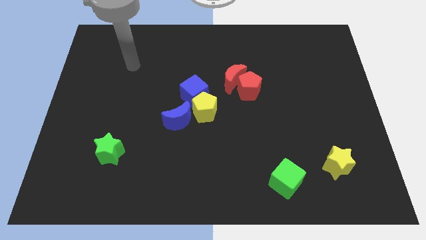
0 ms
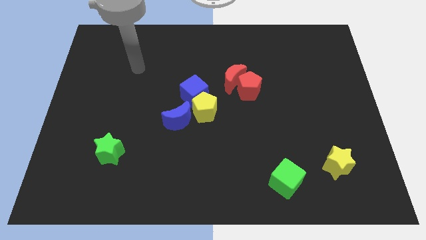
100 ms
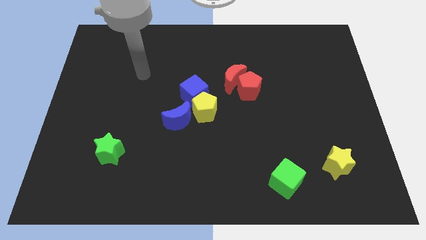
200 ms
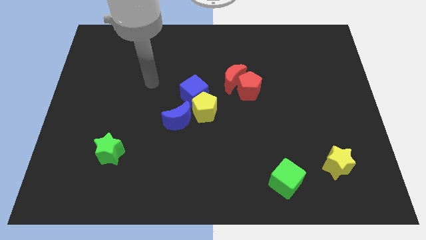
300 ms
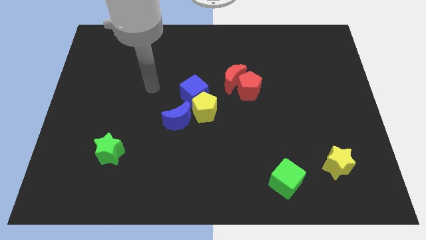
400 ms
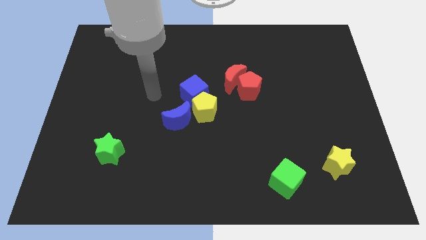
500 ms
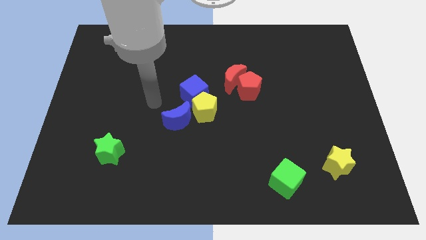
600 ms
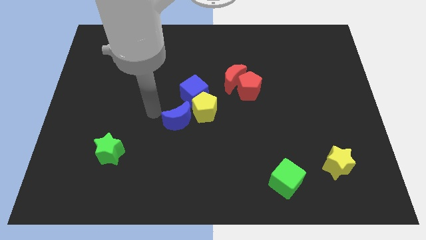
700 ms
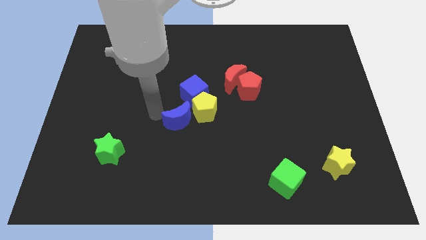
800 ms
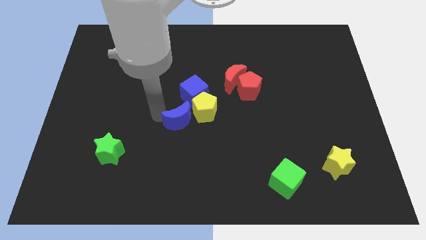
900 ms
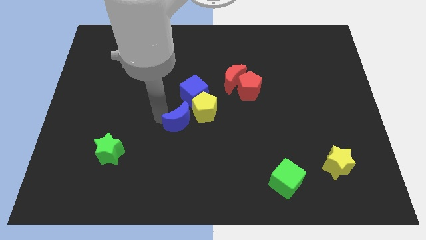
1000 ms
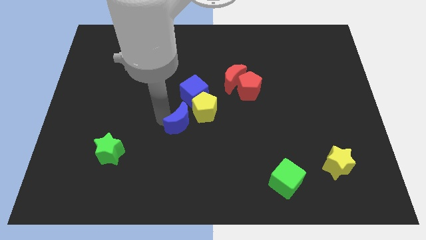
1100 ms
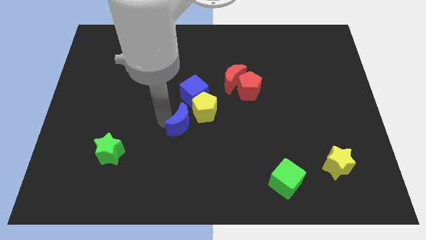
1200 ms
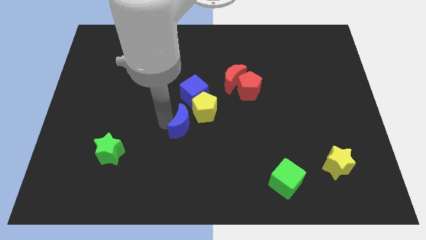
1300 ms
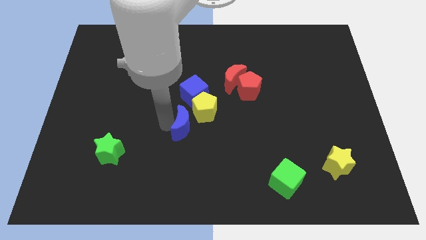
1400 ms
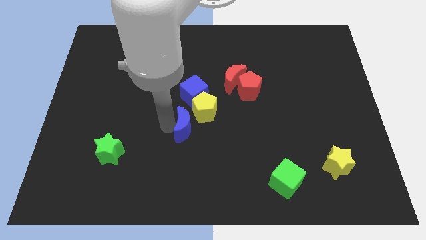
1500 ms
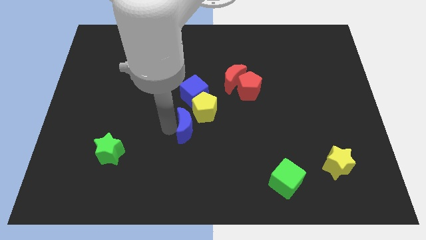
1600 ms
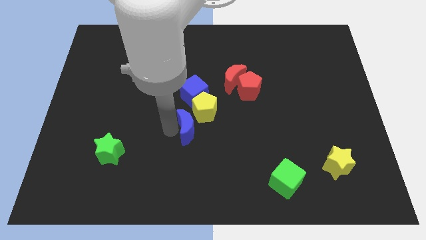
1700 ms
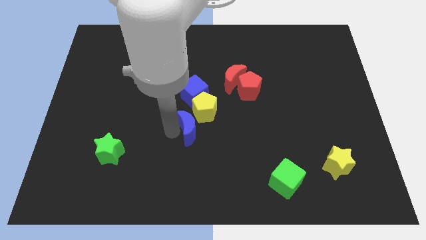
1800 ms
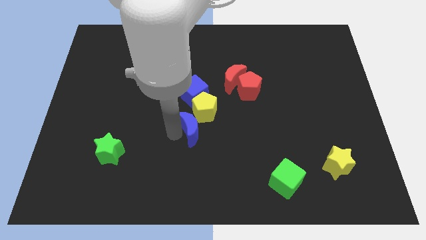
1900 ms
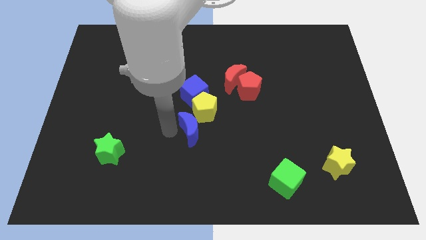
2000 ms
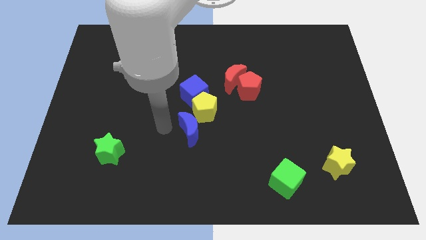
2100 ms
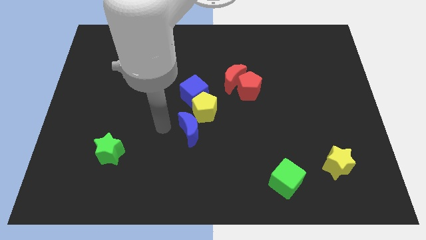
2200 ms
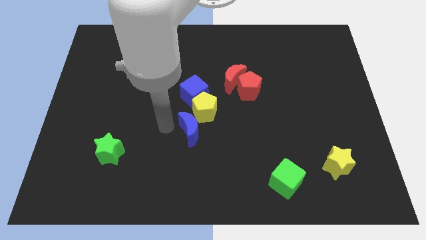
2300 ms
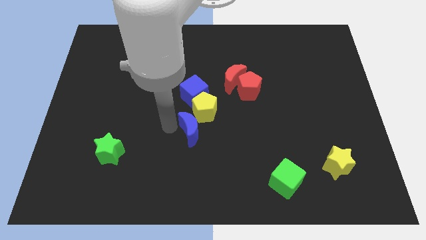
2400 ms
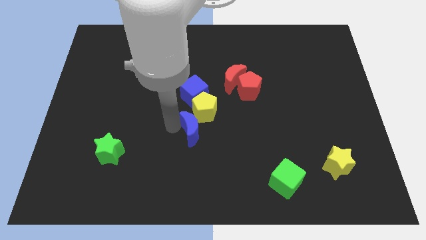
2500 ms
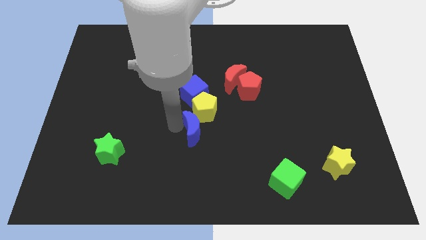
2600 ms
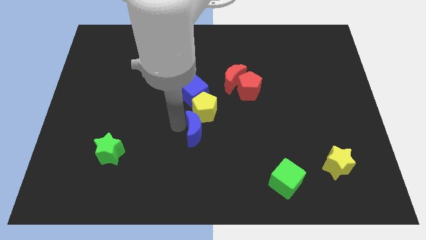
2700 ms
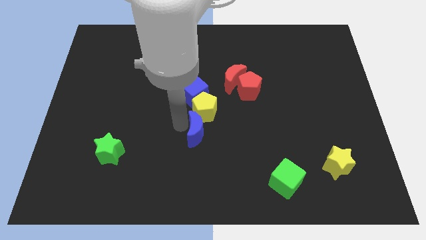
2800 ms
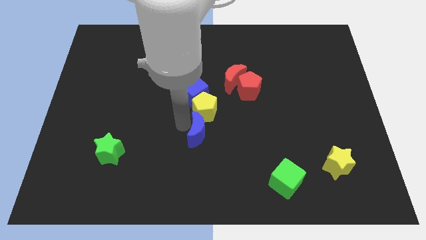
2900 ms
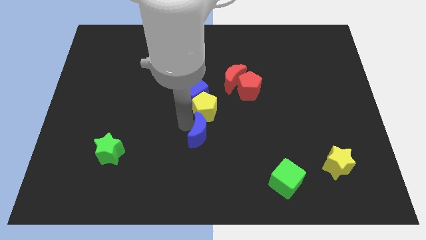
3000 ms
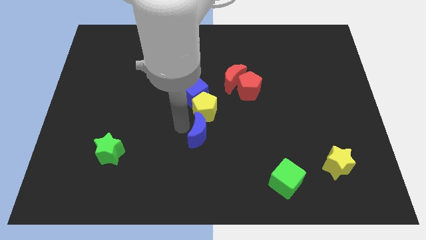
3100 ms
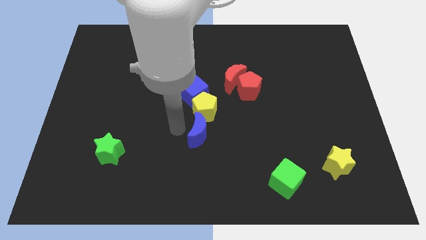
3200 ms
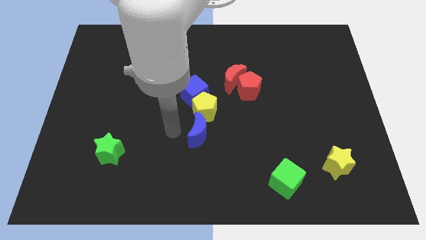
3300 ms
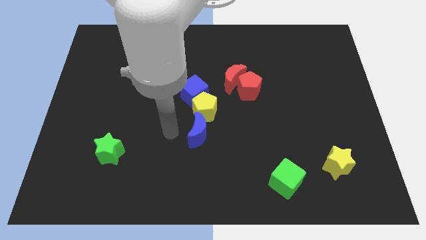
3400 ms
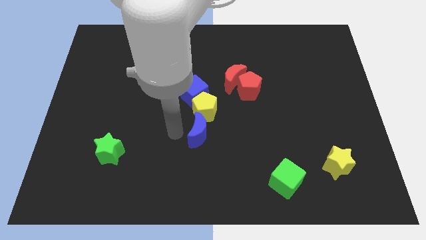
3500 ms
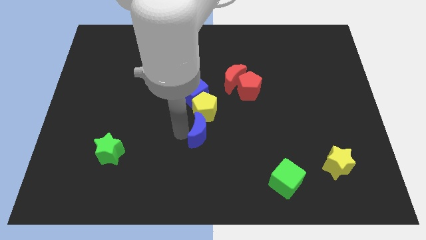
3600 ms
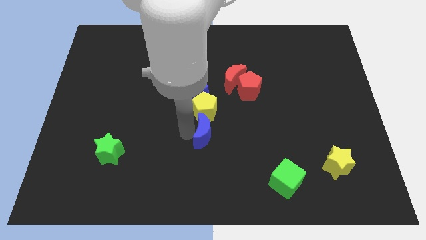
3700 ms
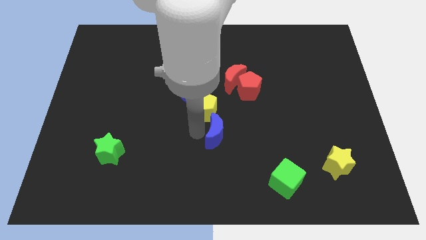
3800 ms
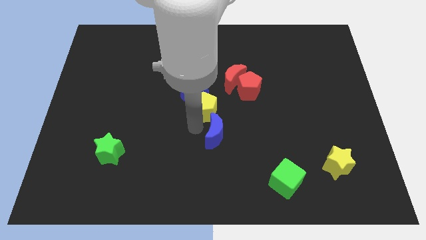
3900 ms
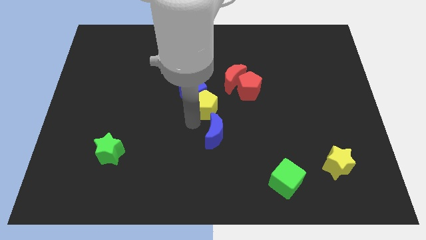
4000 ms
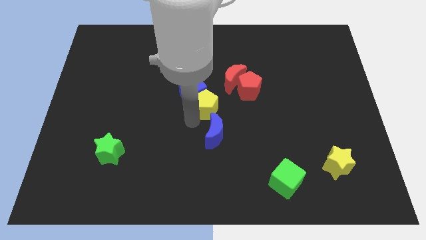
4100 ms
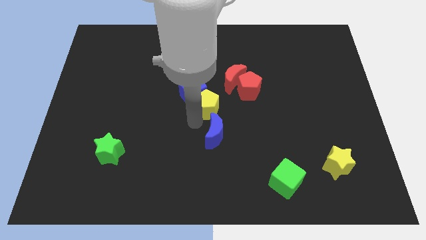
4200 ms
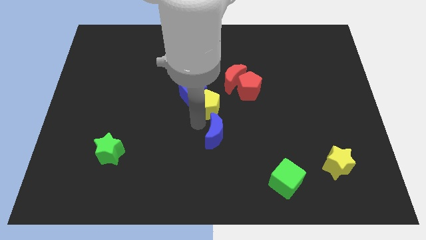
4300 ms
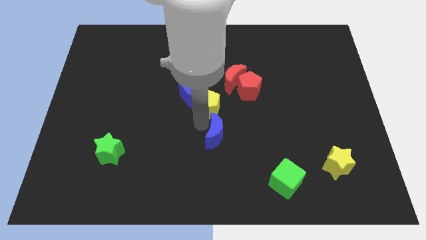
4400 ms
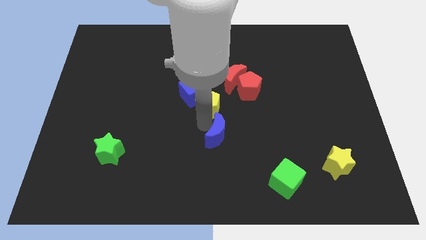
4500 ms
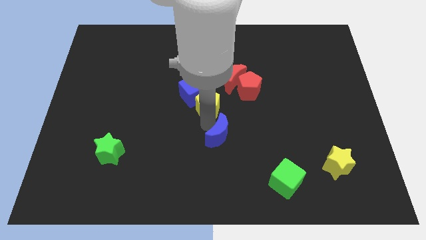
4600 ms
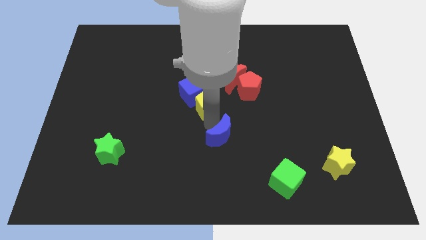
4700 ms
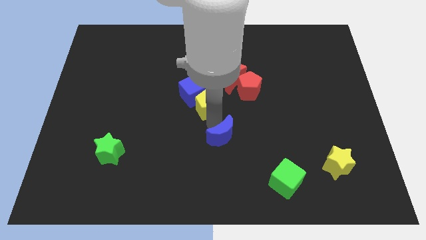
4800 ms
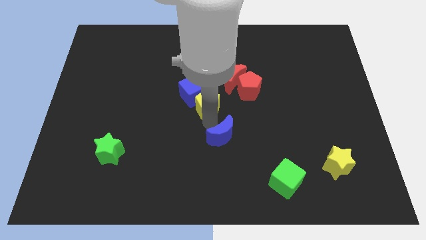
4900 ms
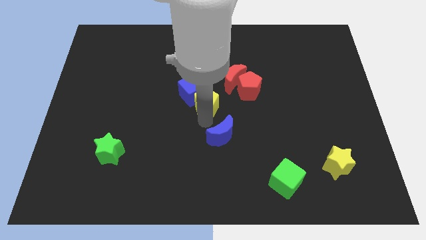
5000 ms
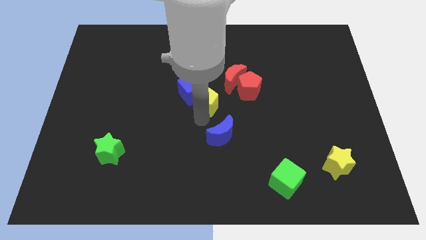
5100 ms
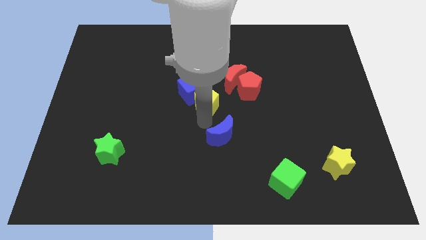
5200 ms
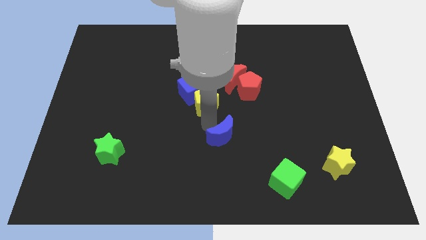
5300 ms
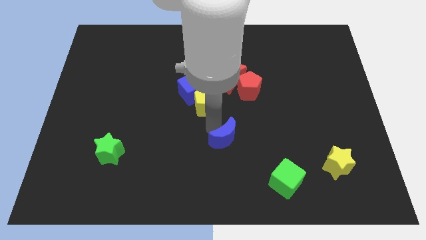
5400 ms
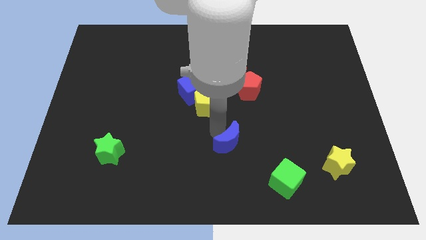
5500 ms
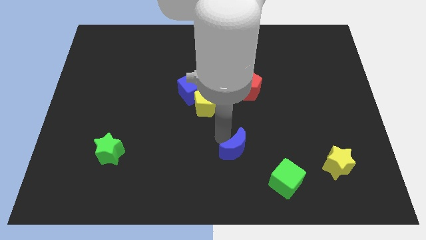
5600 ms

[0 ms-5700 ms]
move the blue moon to the top left of the green cube

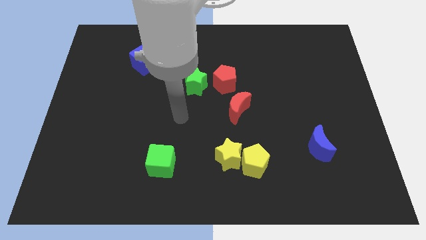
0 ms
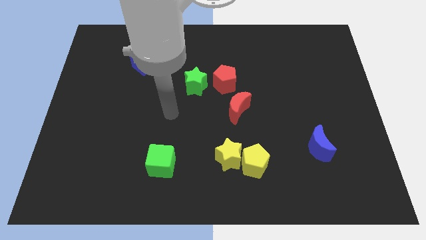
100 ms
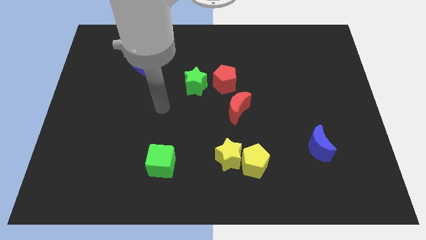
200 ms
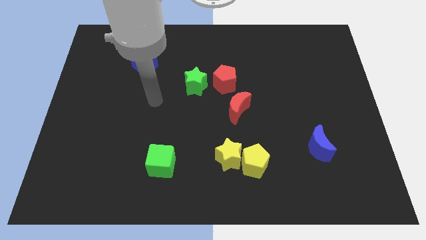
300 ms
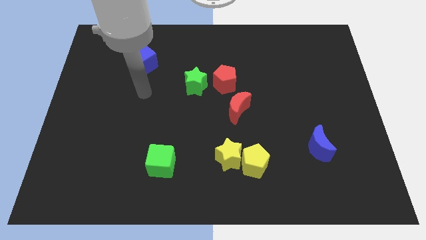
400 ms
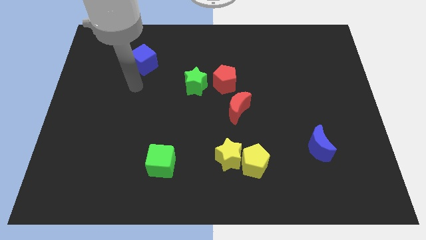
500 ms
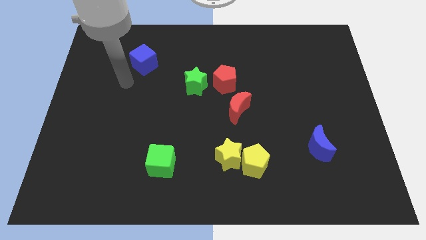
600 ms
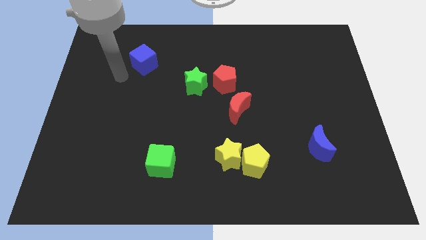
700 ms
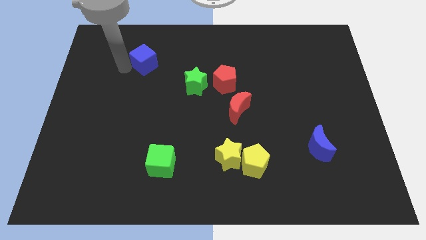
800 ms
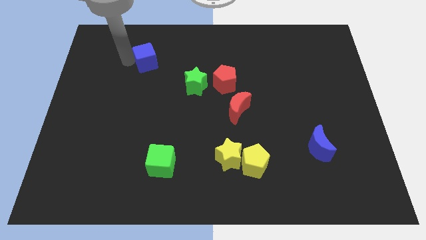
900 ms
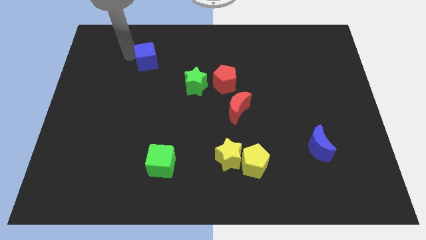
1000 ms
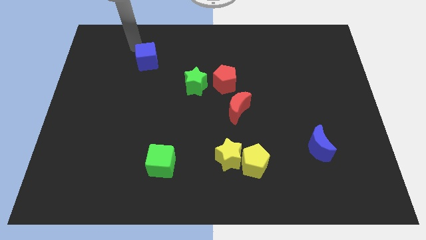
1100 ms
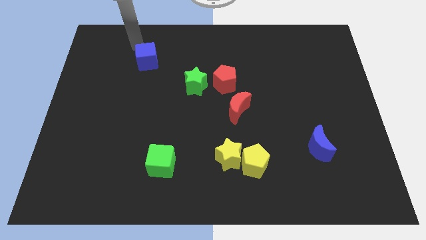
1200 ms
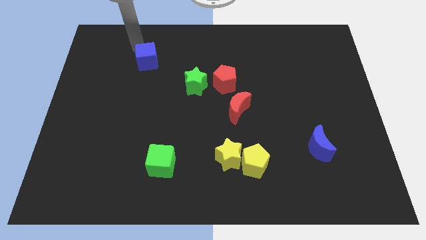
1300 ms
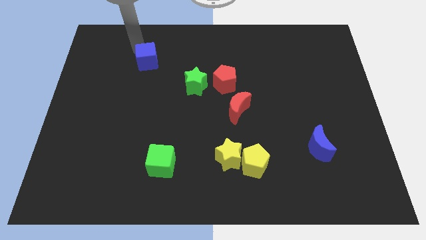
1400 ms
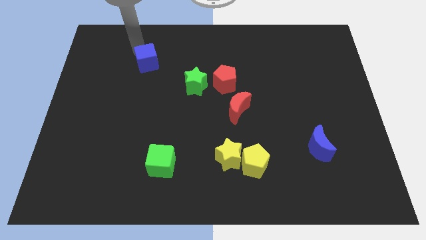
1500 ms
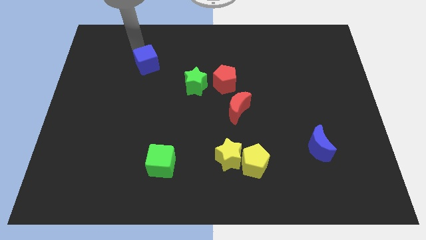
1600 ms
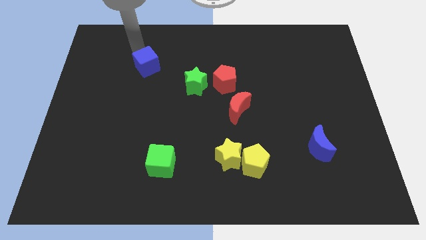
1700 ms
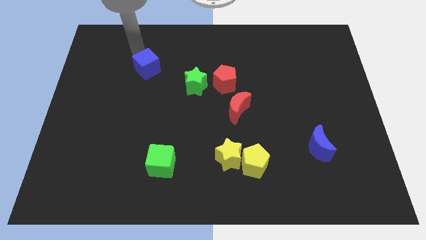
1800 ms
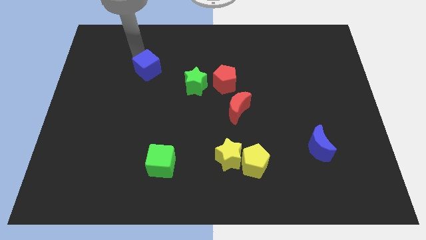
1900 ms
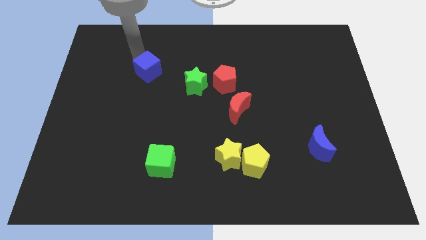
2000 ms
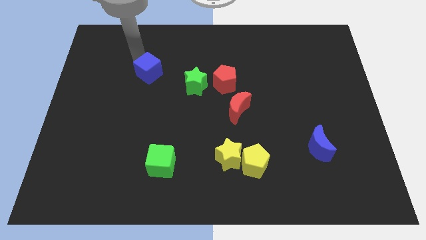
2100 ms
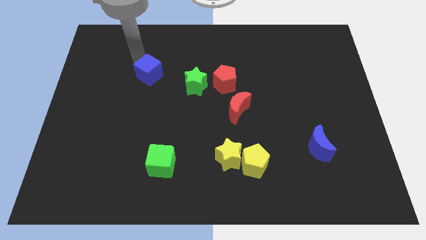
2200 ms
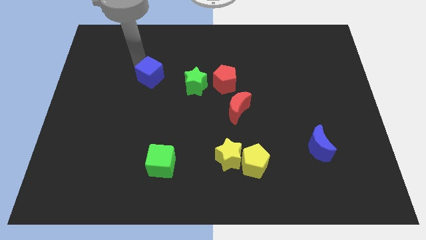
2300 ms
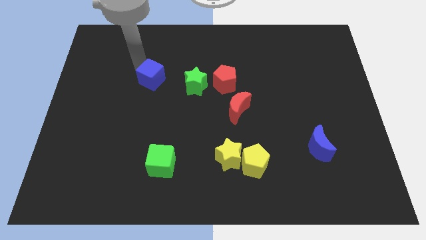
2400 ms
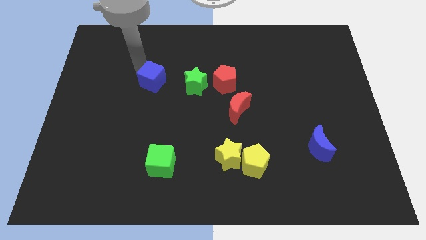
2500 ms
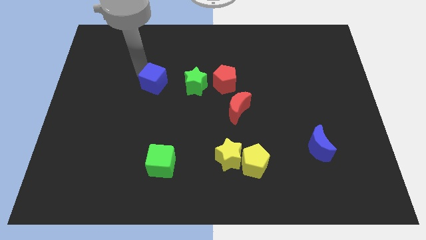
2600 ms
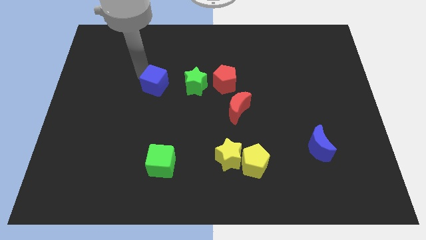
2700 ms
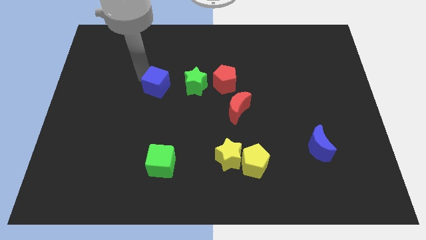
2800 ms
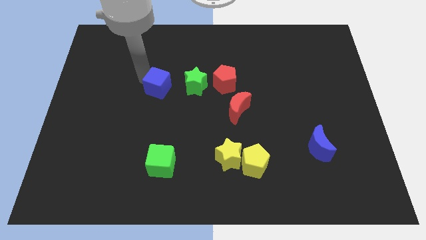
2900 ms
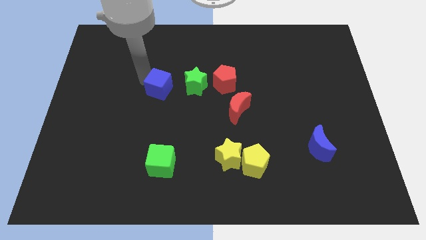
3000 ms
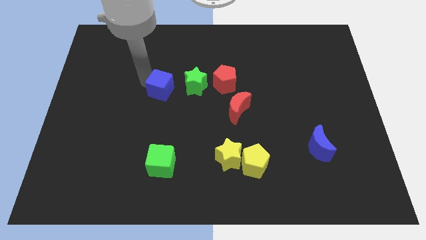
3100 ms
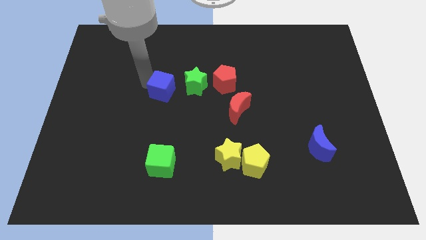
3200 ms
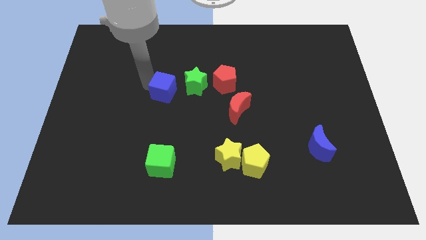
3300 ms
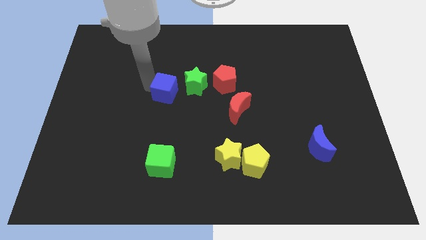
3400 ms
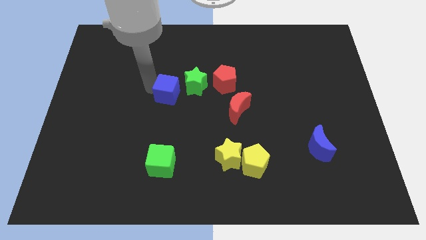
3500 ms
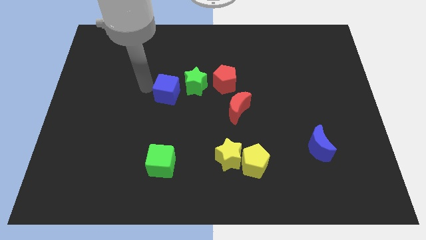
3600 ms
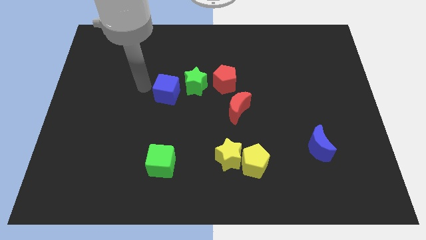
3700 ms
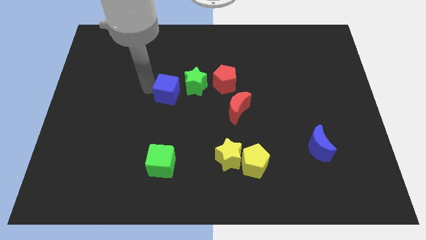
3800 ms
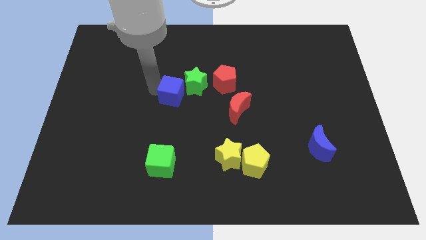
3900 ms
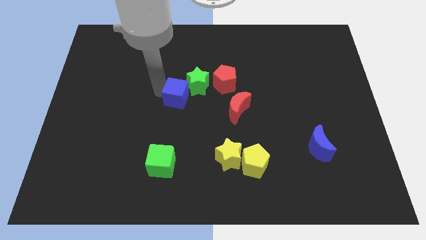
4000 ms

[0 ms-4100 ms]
push the blue cube left of the red moon
